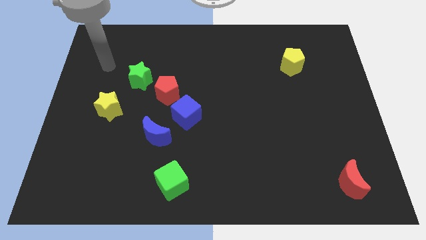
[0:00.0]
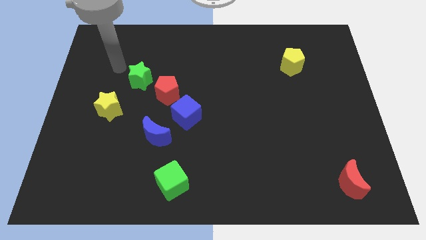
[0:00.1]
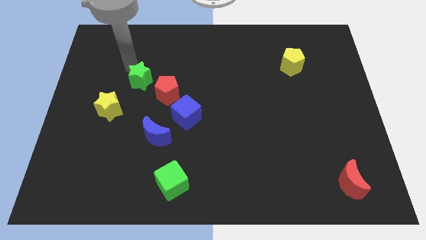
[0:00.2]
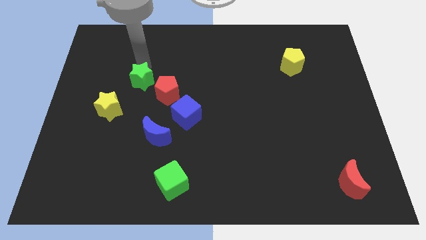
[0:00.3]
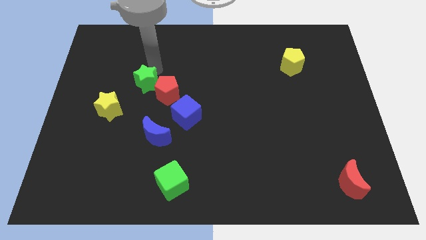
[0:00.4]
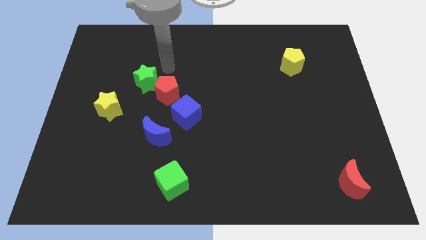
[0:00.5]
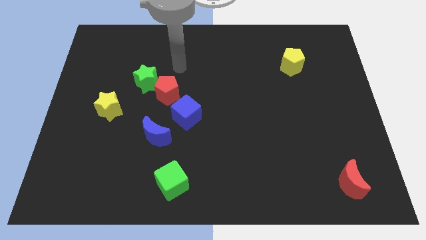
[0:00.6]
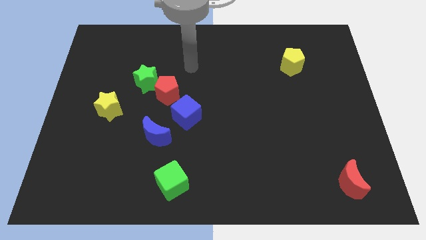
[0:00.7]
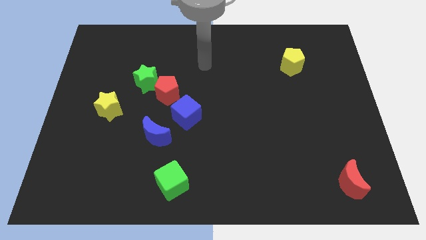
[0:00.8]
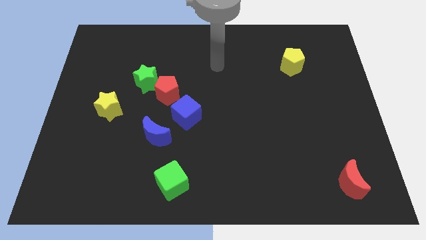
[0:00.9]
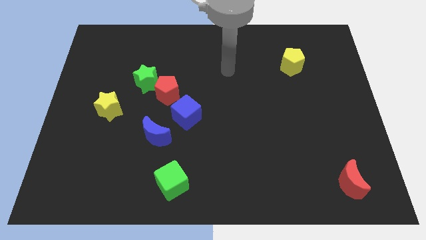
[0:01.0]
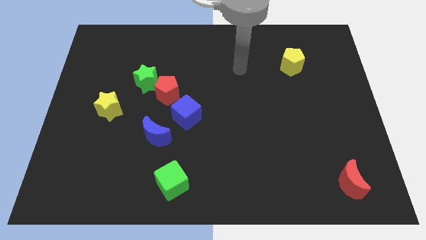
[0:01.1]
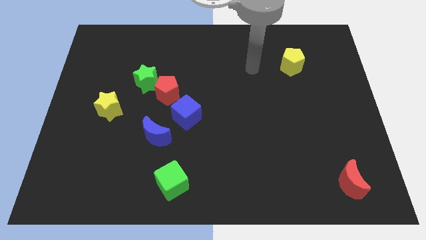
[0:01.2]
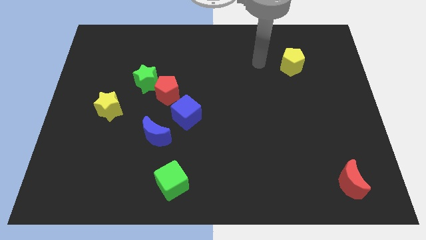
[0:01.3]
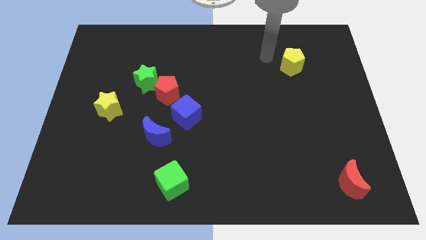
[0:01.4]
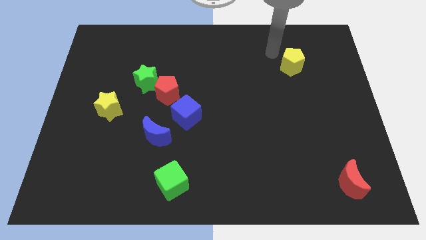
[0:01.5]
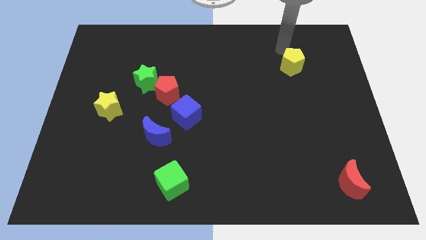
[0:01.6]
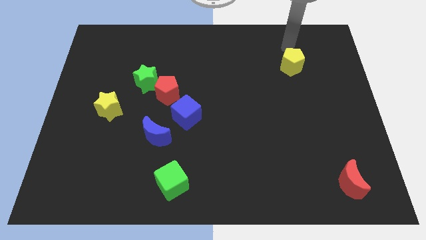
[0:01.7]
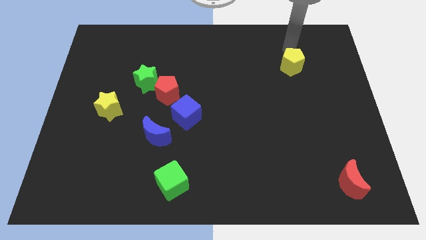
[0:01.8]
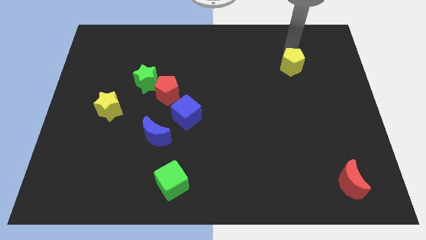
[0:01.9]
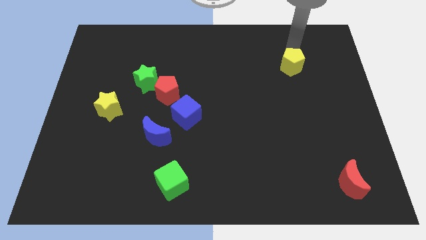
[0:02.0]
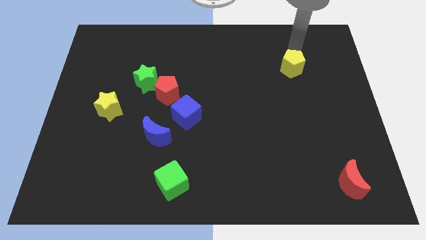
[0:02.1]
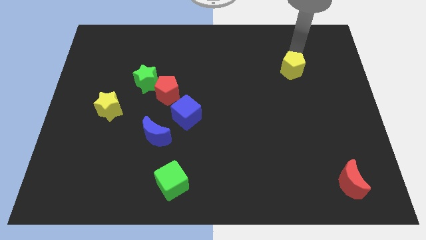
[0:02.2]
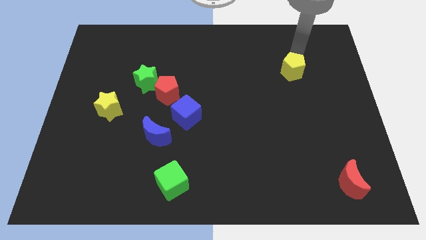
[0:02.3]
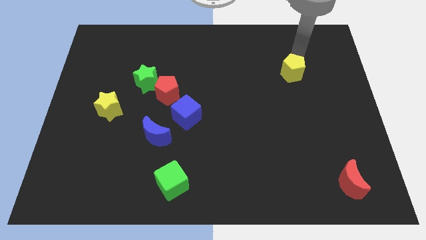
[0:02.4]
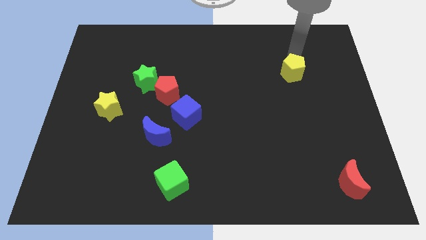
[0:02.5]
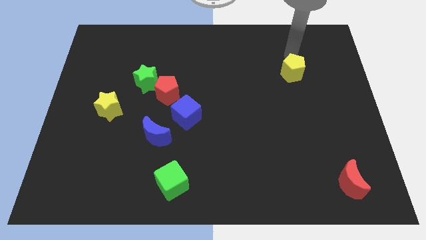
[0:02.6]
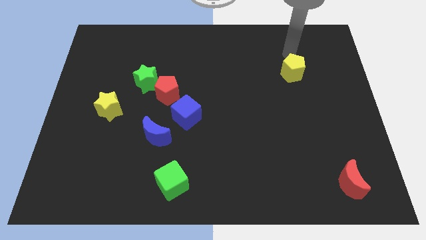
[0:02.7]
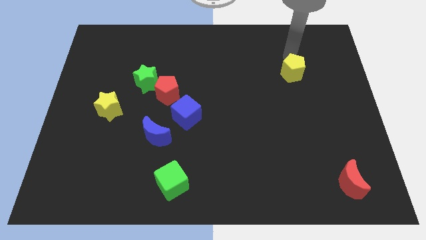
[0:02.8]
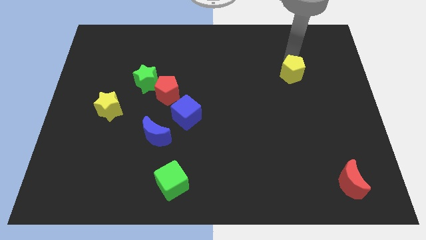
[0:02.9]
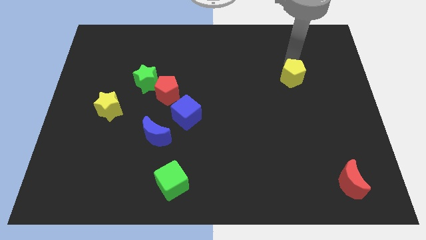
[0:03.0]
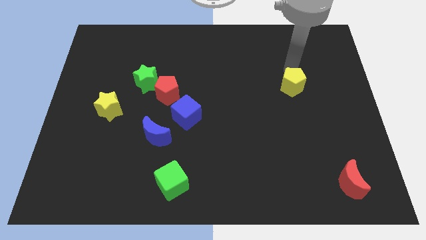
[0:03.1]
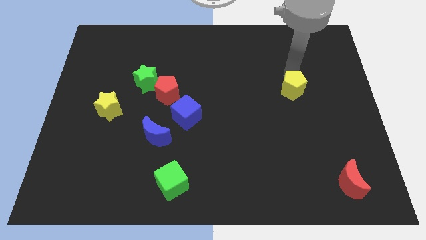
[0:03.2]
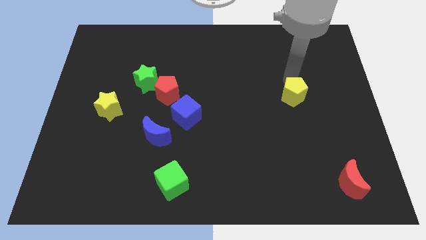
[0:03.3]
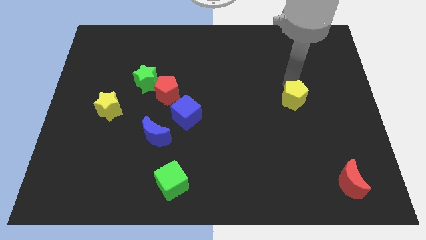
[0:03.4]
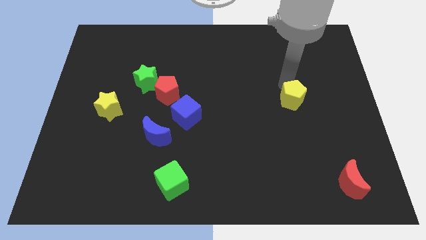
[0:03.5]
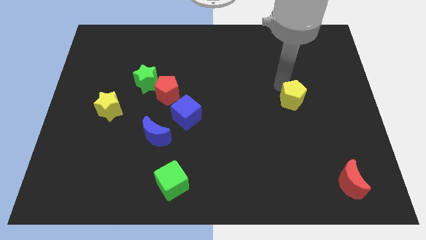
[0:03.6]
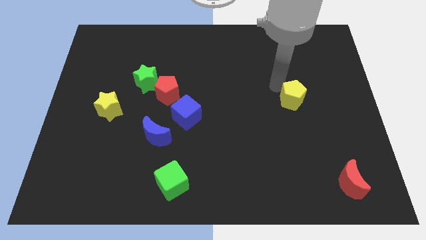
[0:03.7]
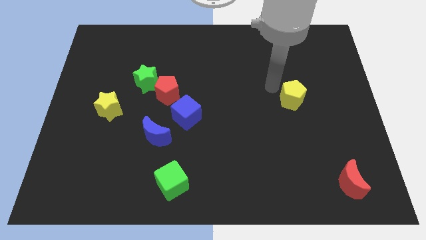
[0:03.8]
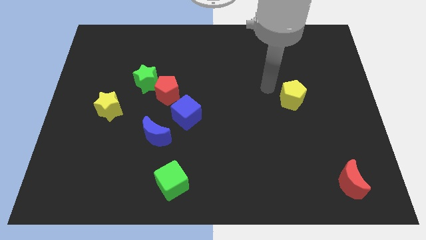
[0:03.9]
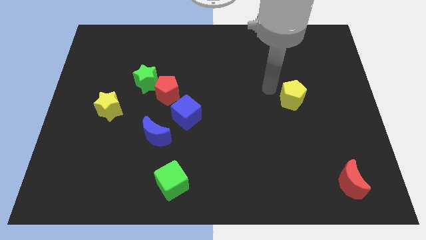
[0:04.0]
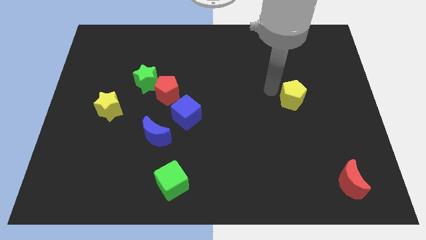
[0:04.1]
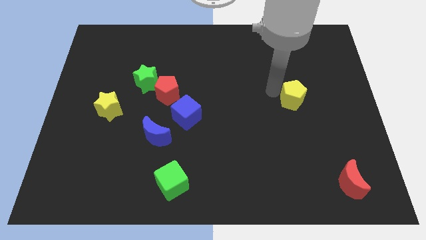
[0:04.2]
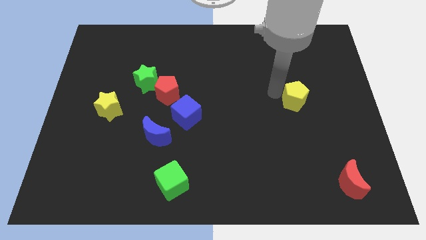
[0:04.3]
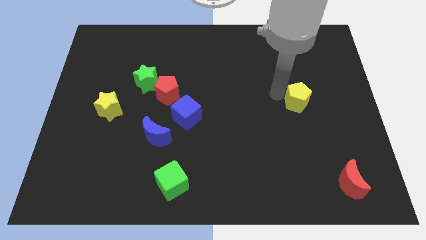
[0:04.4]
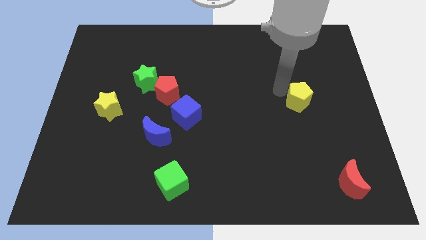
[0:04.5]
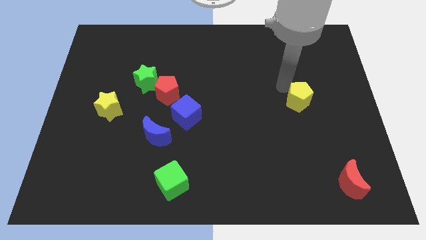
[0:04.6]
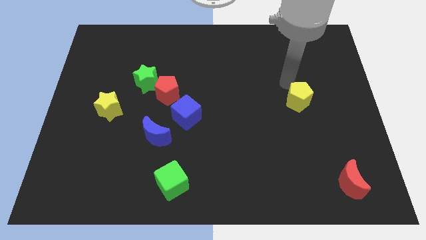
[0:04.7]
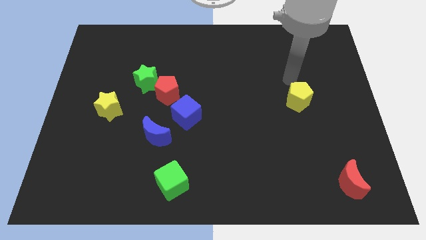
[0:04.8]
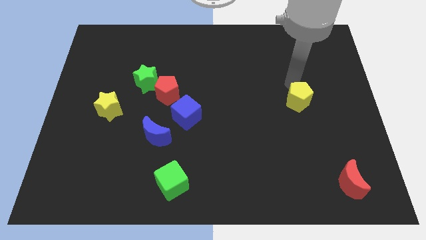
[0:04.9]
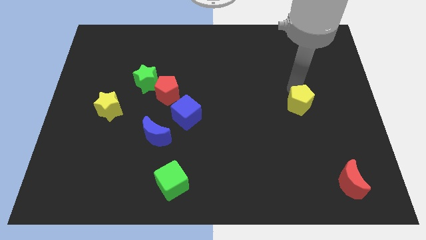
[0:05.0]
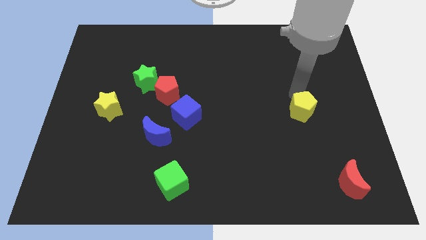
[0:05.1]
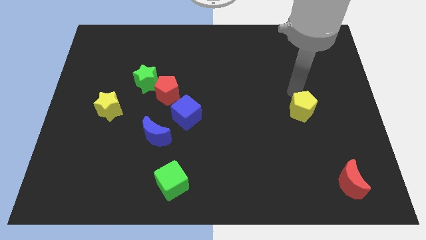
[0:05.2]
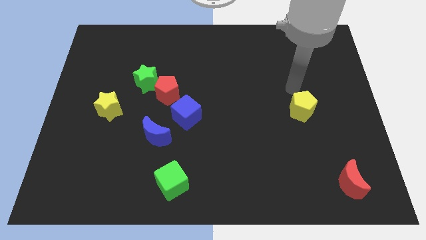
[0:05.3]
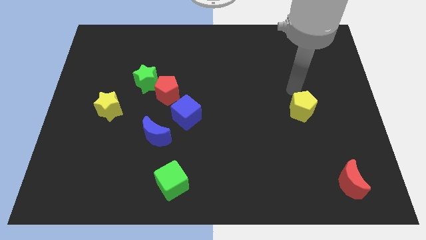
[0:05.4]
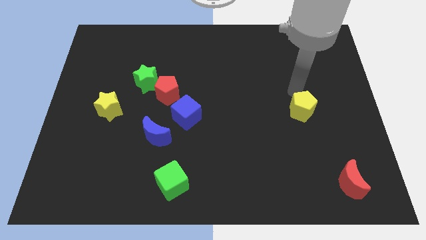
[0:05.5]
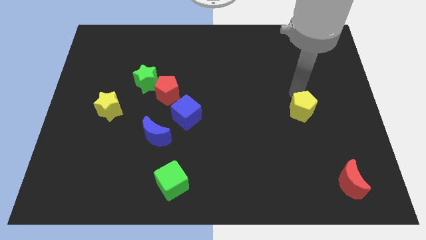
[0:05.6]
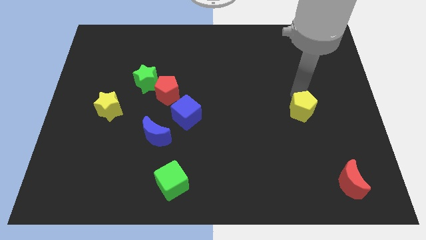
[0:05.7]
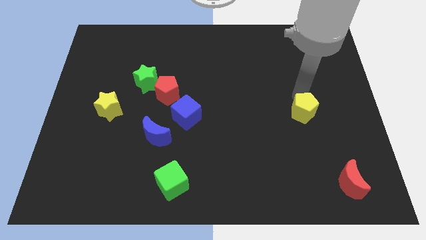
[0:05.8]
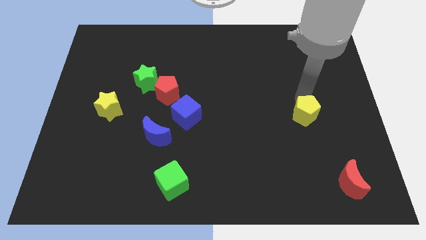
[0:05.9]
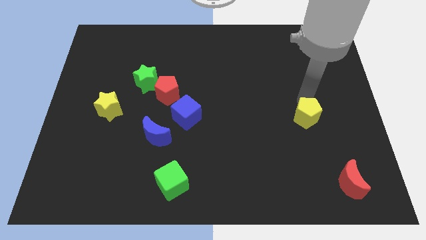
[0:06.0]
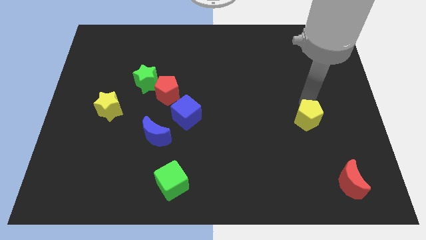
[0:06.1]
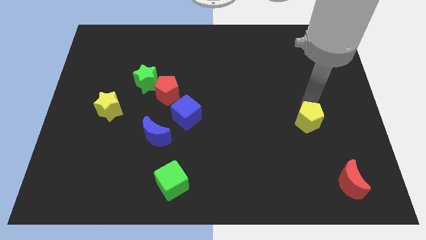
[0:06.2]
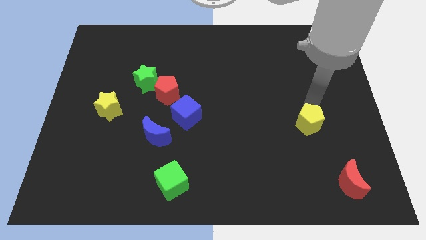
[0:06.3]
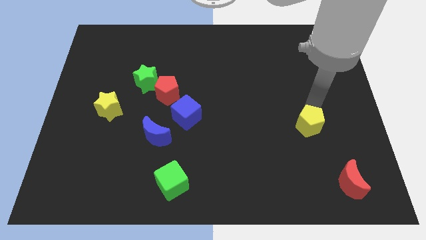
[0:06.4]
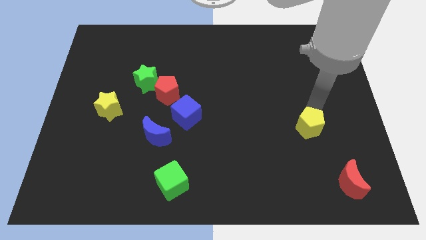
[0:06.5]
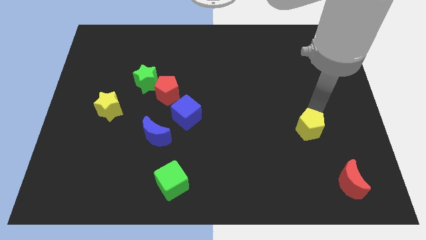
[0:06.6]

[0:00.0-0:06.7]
push the yellow pentagon downwards

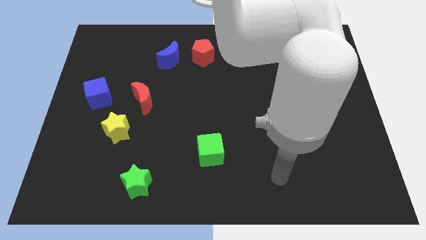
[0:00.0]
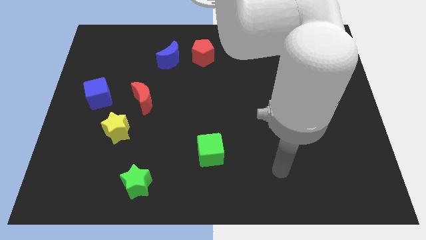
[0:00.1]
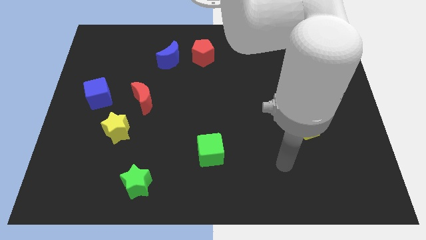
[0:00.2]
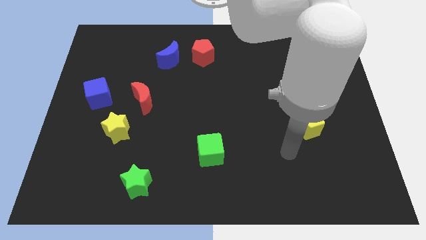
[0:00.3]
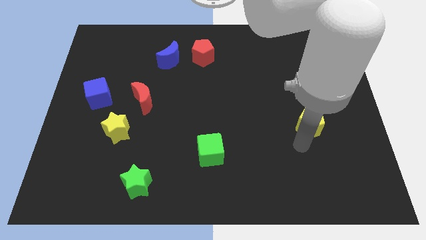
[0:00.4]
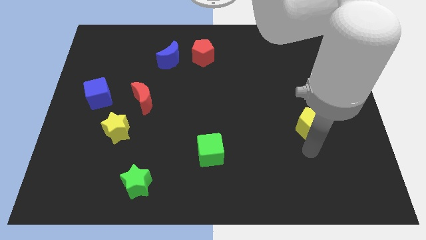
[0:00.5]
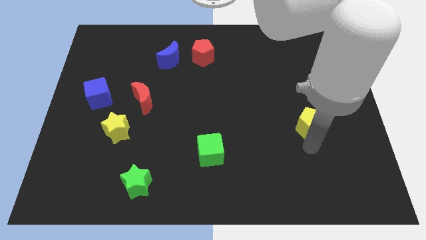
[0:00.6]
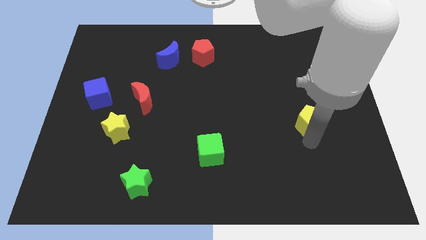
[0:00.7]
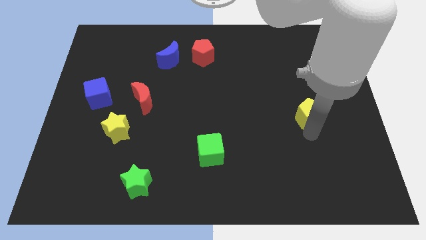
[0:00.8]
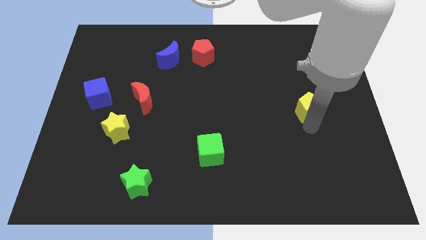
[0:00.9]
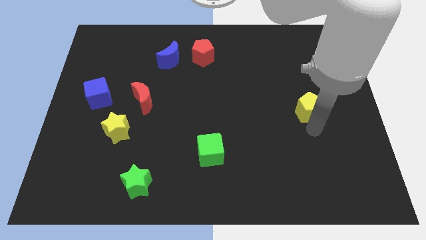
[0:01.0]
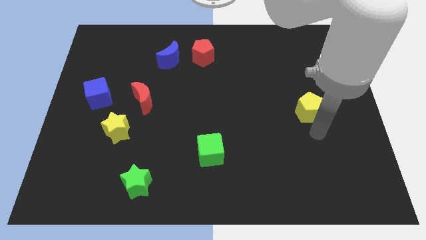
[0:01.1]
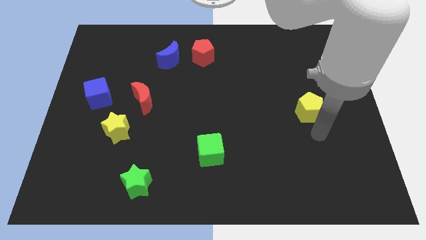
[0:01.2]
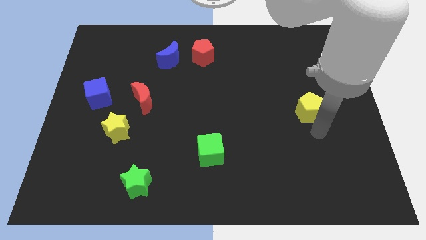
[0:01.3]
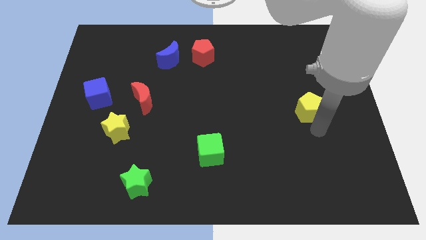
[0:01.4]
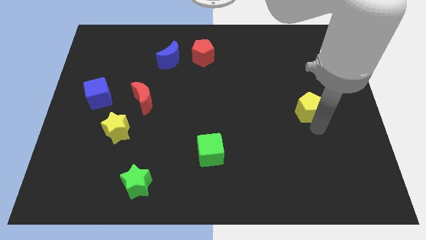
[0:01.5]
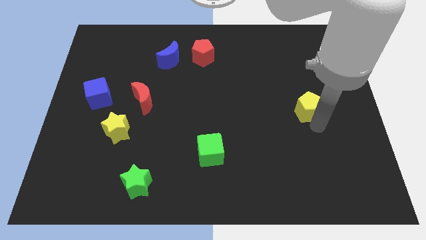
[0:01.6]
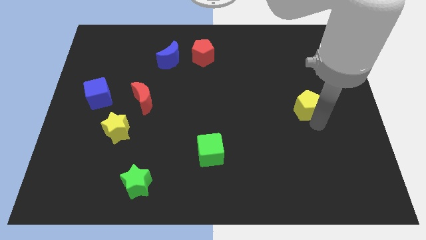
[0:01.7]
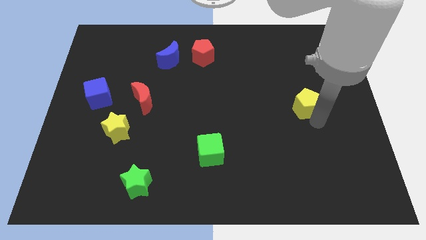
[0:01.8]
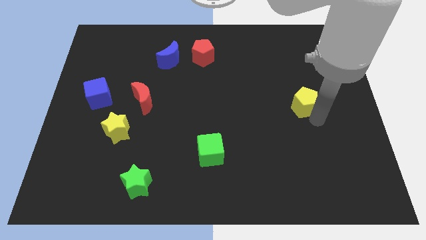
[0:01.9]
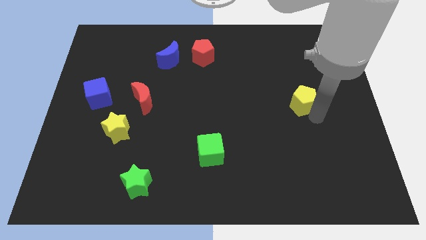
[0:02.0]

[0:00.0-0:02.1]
push the yellow pentagon somewhat upwards
